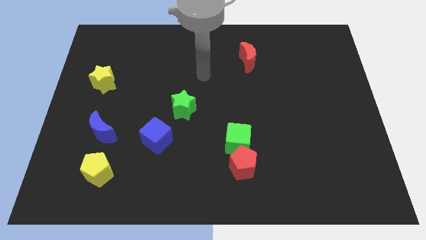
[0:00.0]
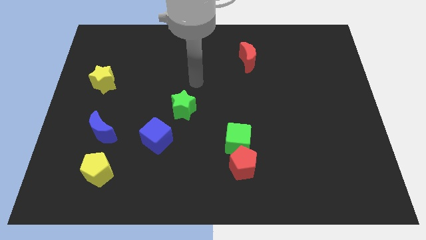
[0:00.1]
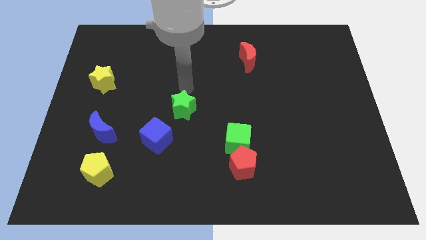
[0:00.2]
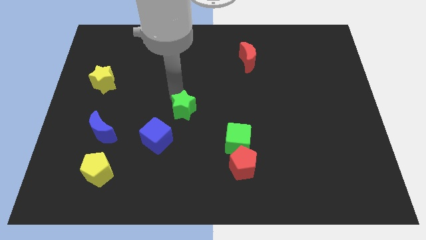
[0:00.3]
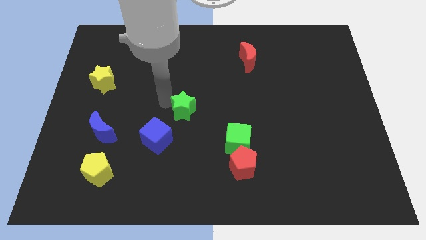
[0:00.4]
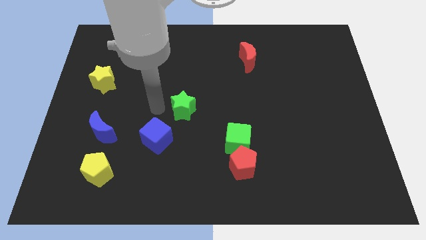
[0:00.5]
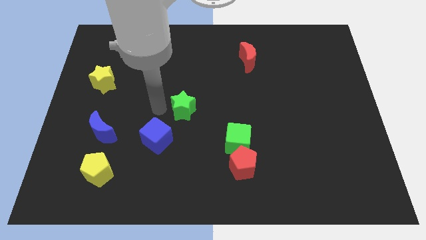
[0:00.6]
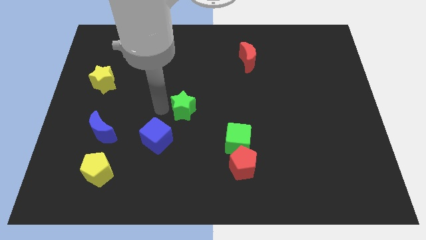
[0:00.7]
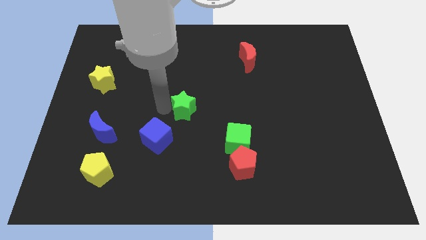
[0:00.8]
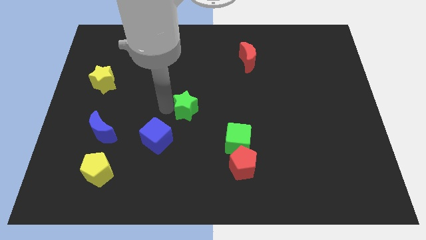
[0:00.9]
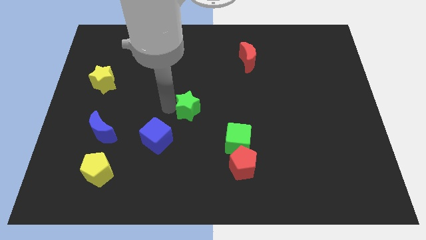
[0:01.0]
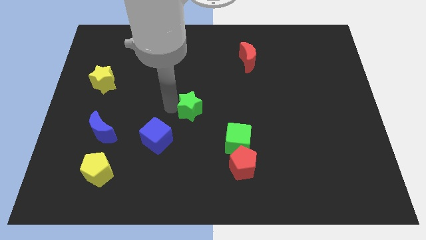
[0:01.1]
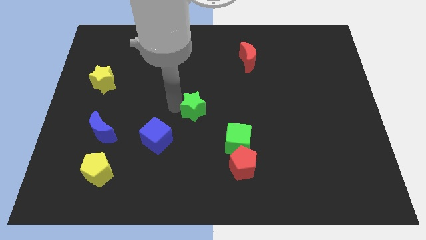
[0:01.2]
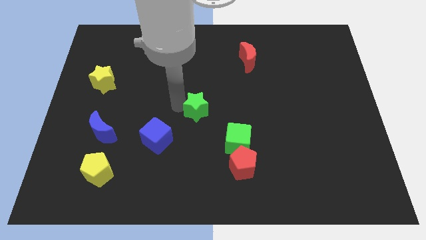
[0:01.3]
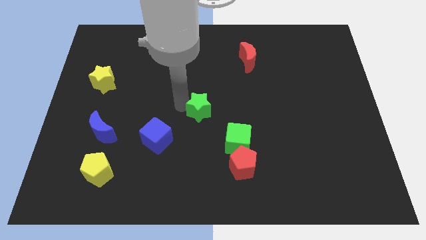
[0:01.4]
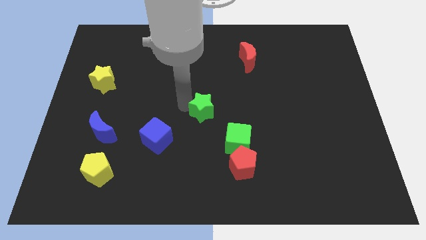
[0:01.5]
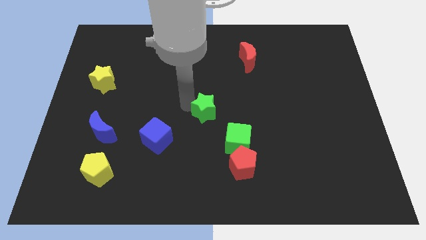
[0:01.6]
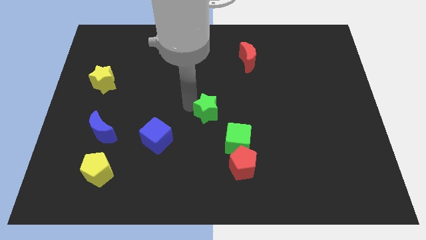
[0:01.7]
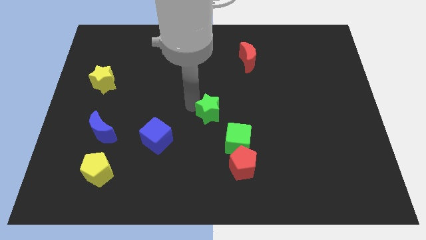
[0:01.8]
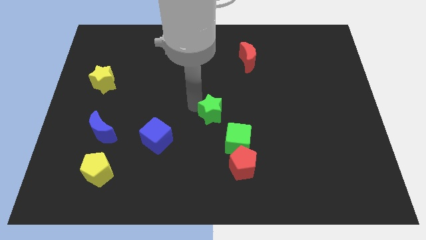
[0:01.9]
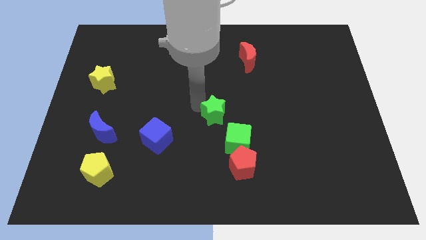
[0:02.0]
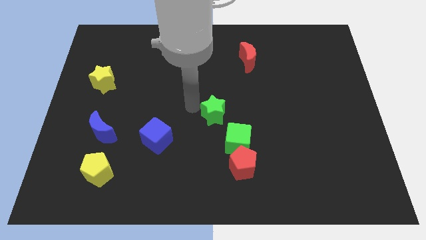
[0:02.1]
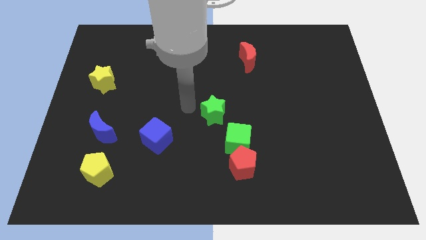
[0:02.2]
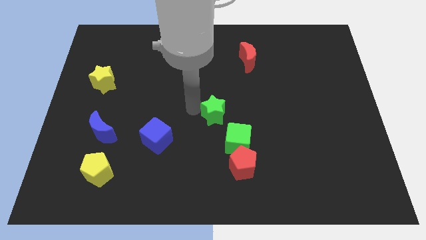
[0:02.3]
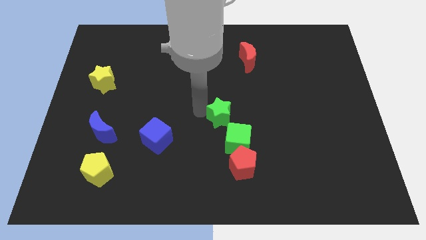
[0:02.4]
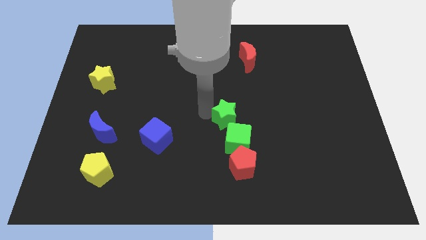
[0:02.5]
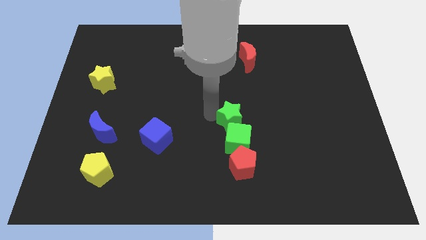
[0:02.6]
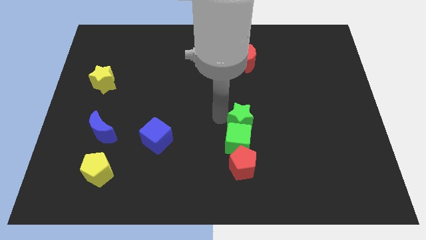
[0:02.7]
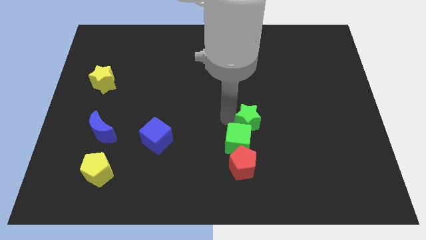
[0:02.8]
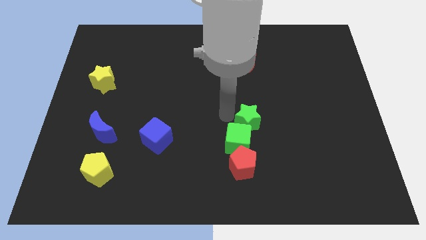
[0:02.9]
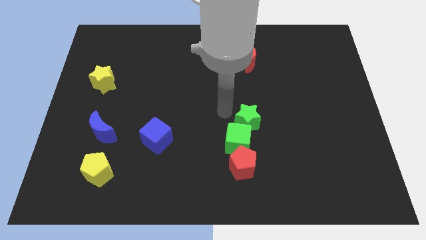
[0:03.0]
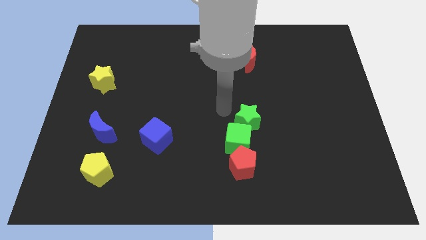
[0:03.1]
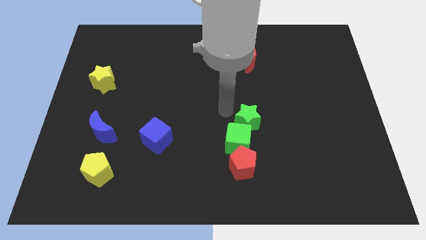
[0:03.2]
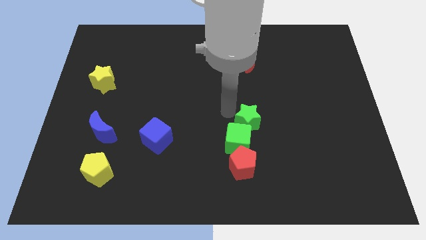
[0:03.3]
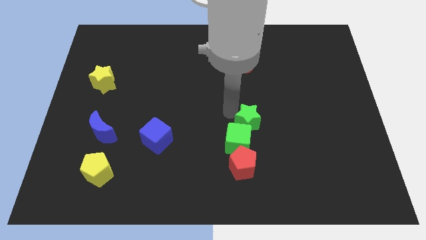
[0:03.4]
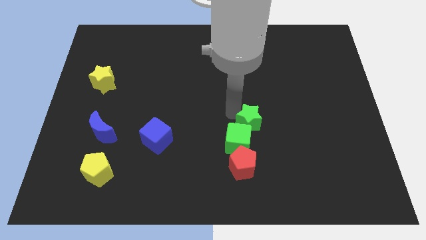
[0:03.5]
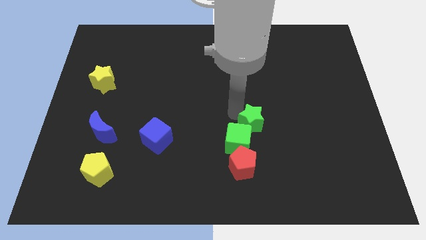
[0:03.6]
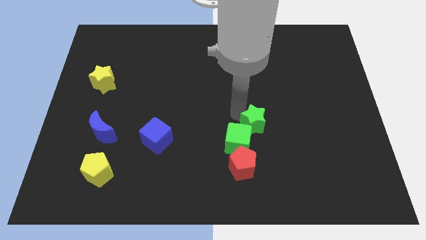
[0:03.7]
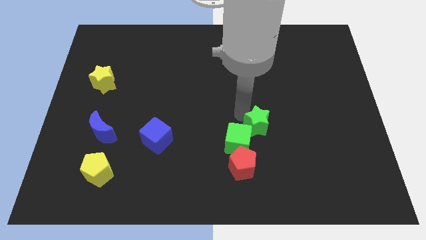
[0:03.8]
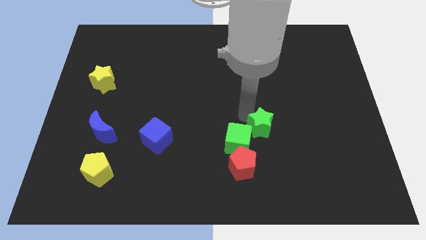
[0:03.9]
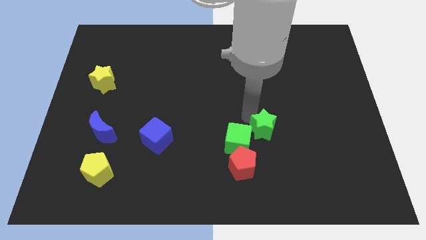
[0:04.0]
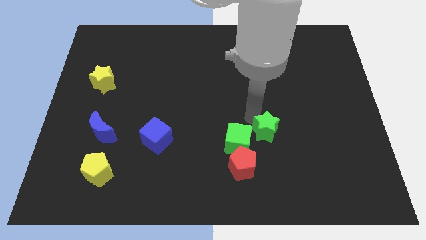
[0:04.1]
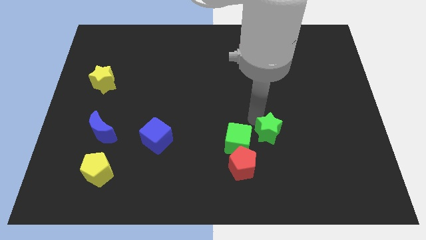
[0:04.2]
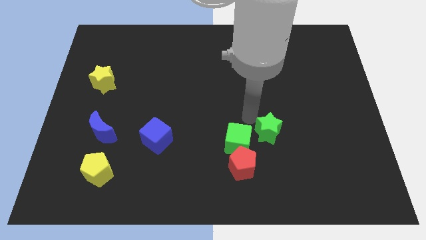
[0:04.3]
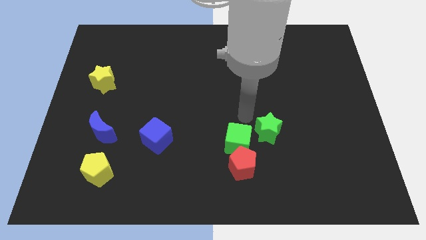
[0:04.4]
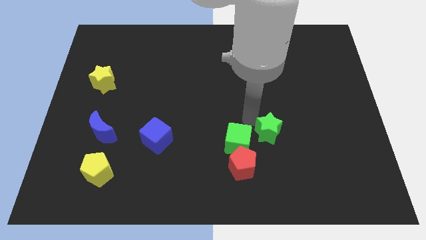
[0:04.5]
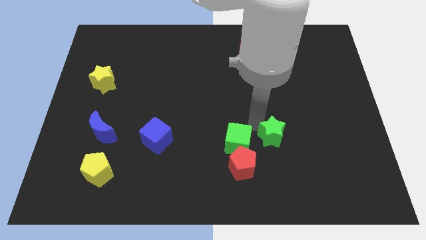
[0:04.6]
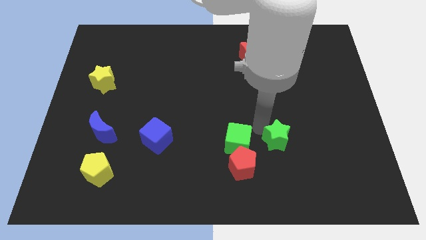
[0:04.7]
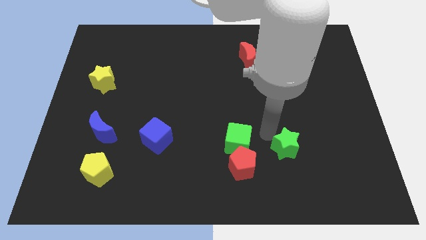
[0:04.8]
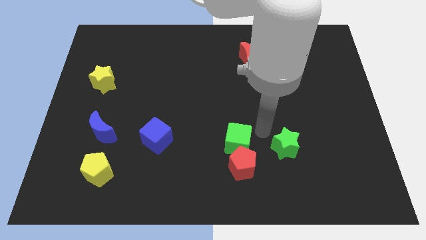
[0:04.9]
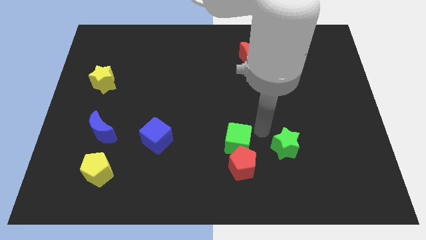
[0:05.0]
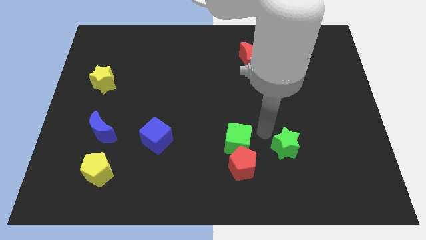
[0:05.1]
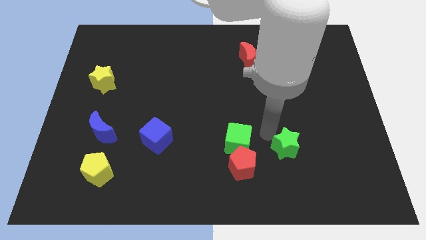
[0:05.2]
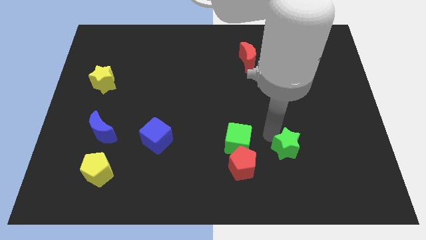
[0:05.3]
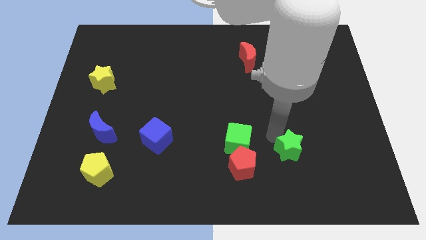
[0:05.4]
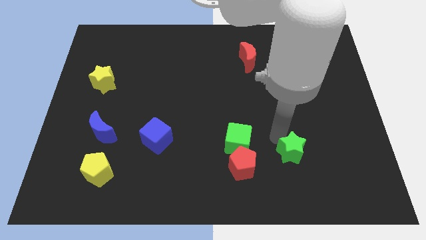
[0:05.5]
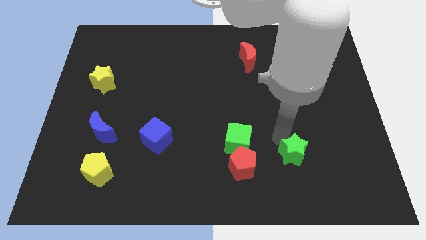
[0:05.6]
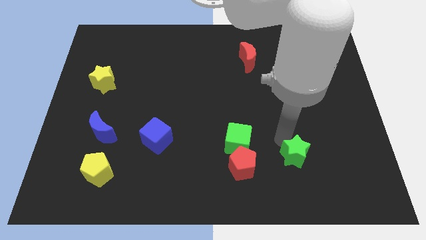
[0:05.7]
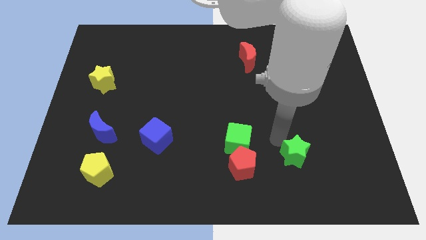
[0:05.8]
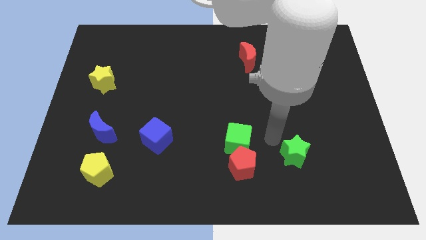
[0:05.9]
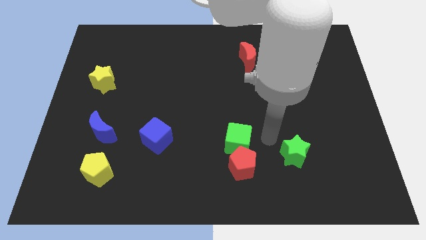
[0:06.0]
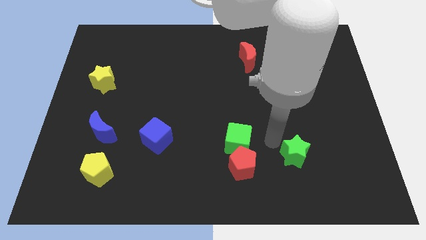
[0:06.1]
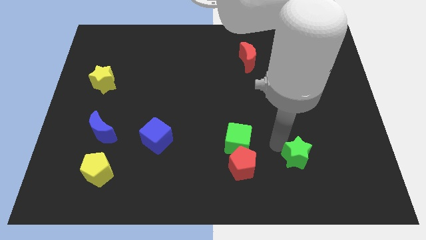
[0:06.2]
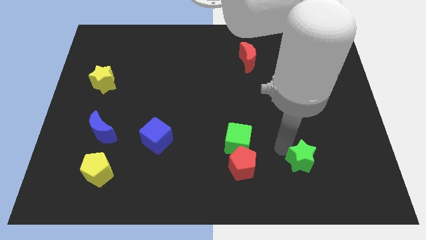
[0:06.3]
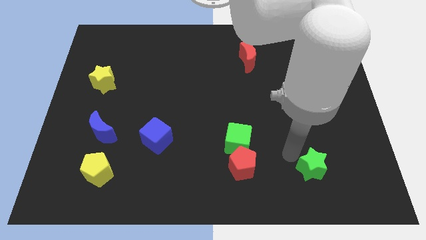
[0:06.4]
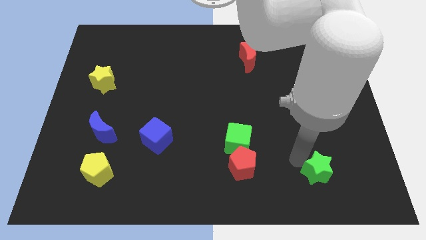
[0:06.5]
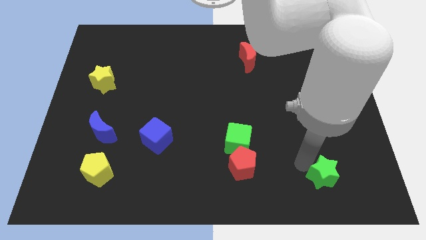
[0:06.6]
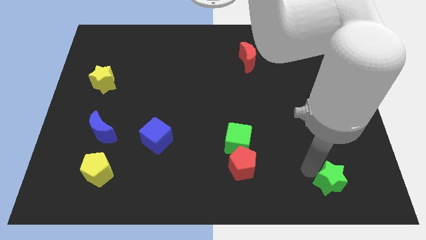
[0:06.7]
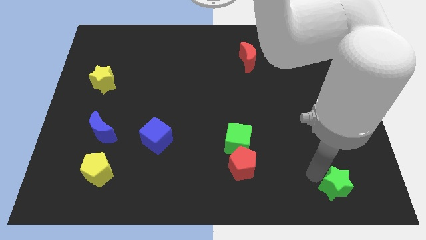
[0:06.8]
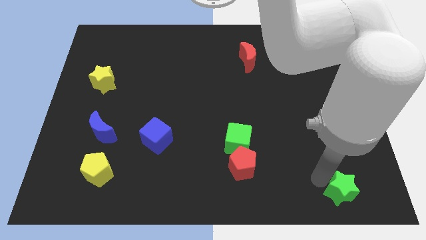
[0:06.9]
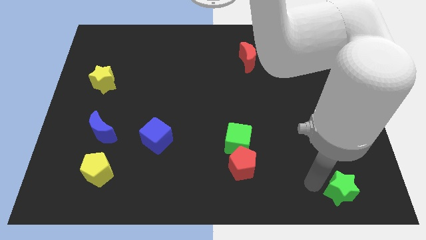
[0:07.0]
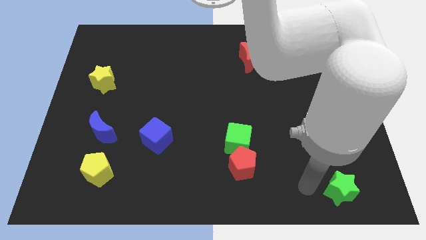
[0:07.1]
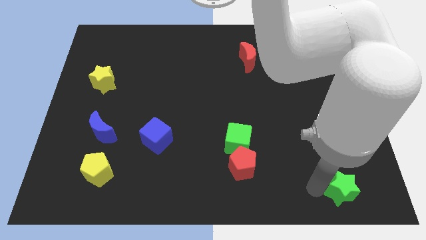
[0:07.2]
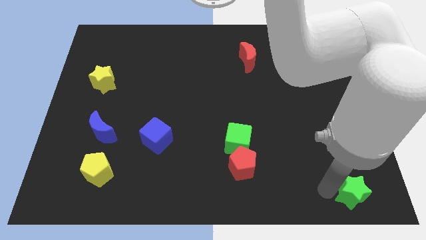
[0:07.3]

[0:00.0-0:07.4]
slide the green star to the lower right corner
